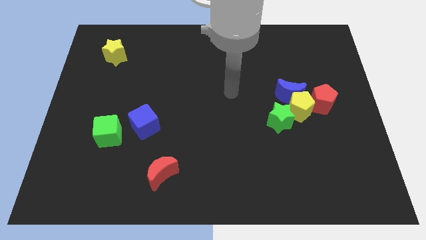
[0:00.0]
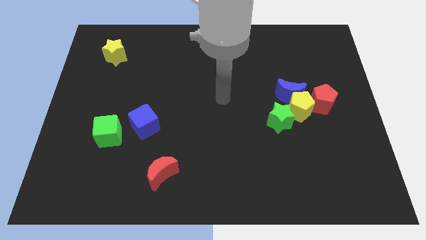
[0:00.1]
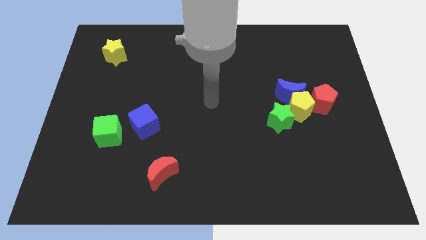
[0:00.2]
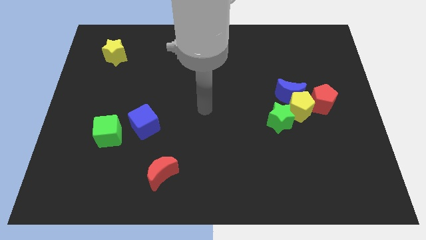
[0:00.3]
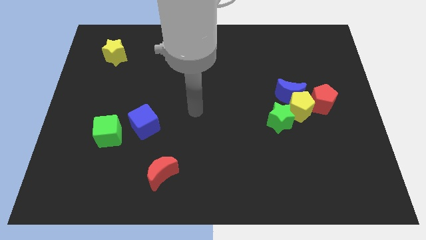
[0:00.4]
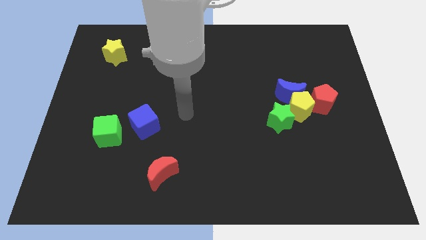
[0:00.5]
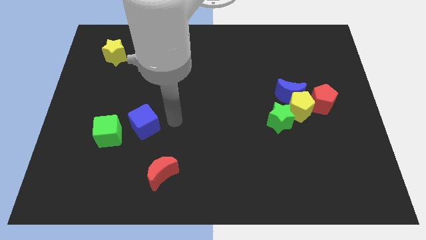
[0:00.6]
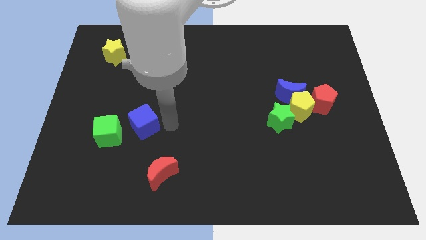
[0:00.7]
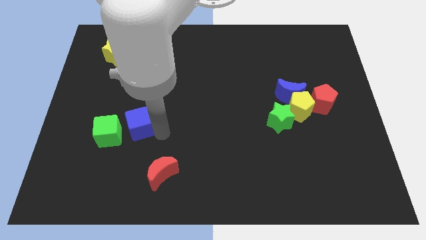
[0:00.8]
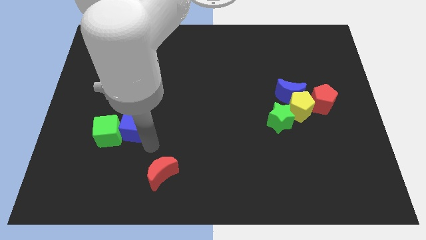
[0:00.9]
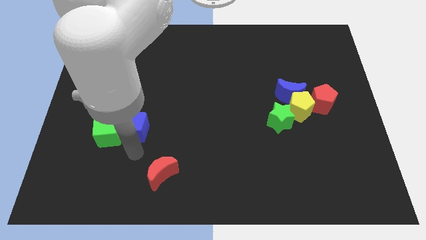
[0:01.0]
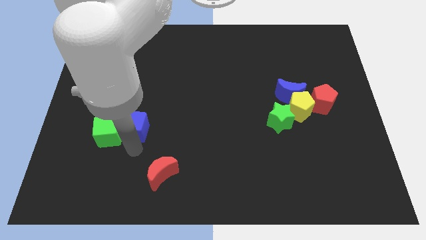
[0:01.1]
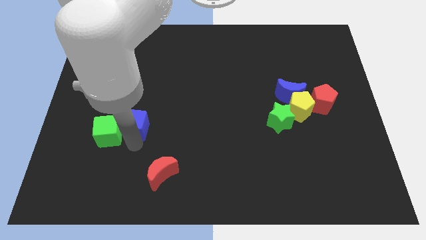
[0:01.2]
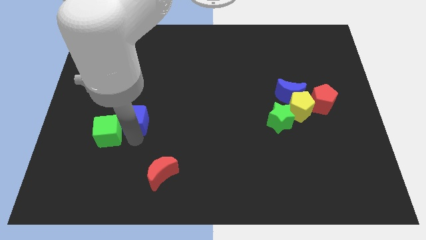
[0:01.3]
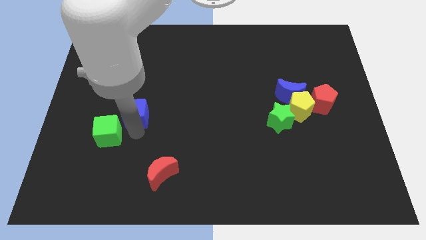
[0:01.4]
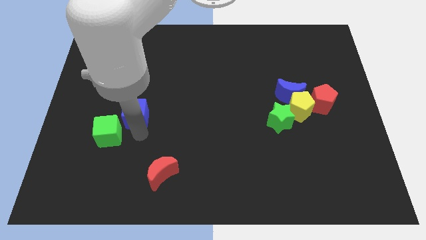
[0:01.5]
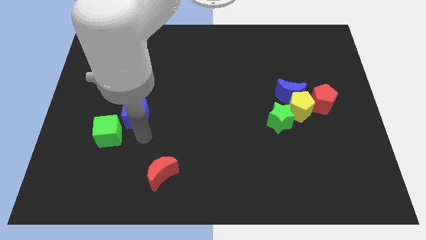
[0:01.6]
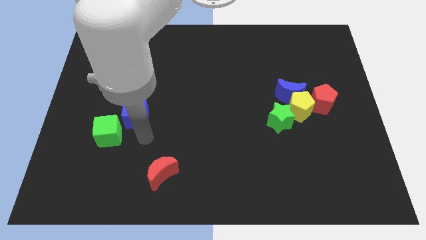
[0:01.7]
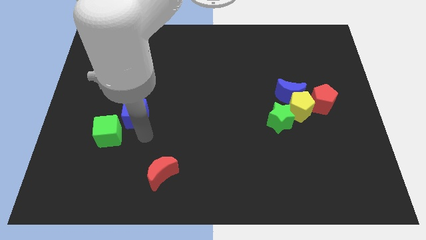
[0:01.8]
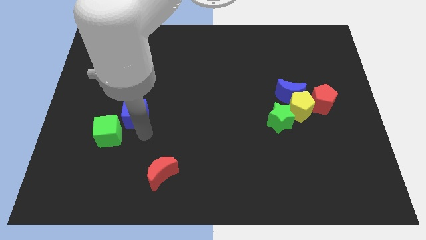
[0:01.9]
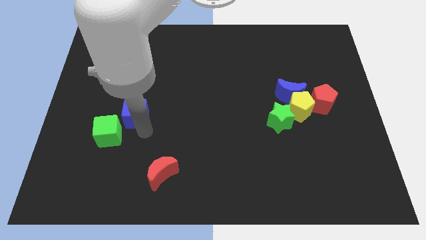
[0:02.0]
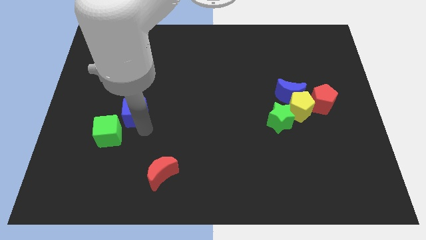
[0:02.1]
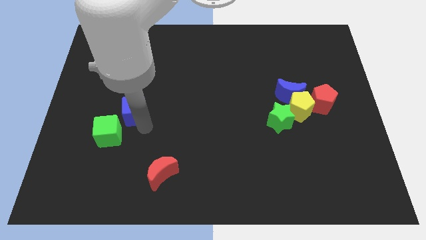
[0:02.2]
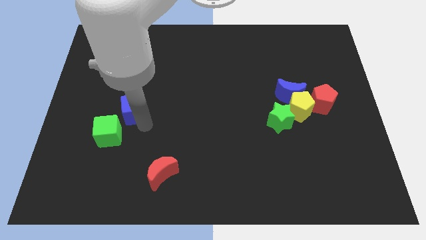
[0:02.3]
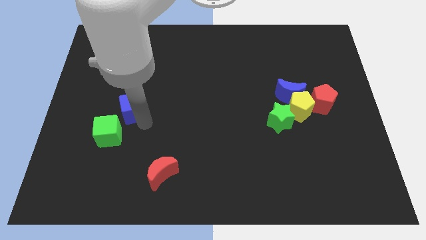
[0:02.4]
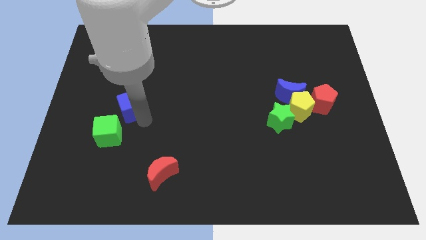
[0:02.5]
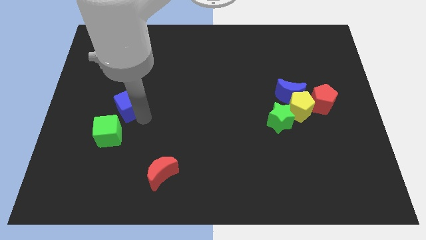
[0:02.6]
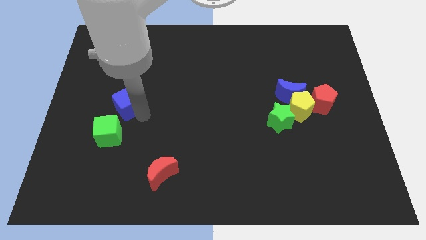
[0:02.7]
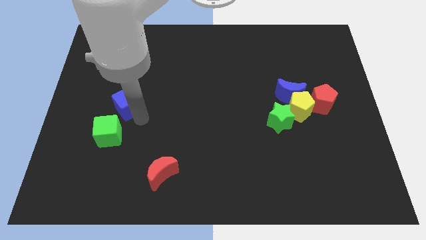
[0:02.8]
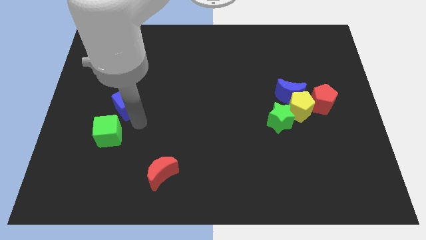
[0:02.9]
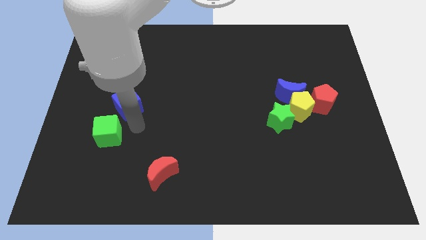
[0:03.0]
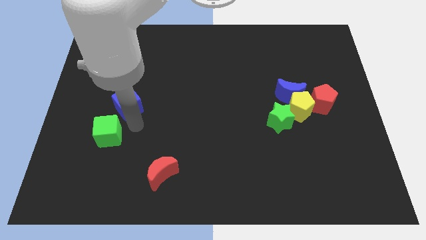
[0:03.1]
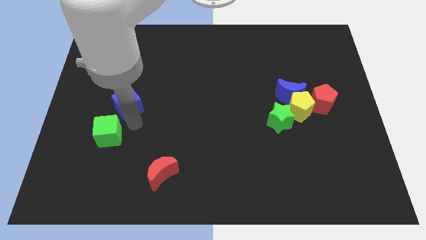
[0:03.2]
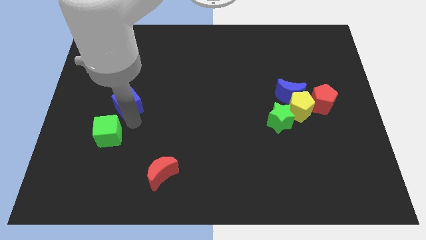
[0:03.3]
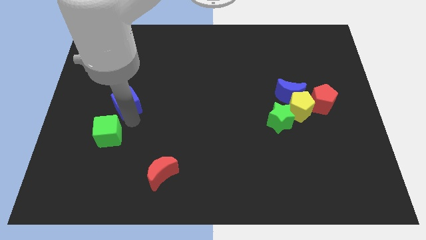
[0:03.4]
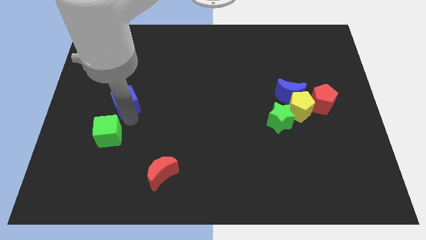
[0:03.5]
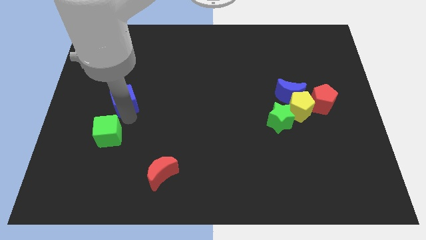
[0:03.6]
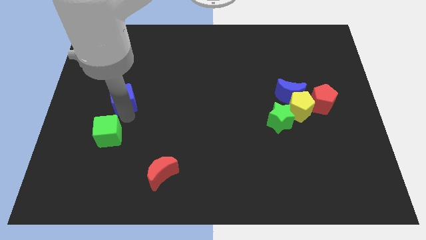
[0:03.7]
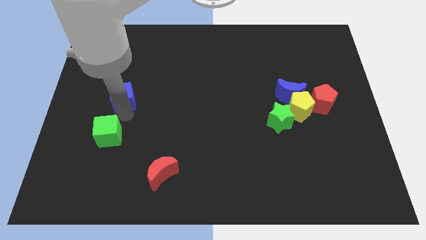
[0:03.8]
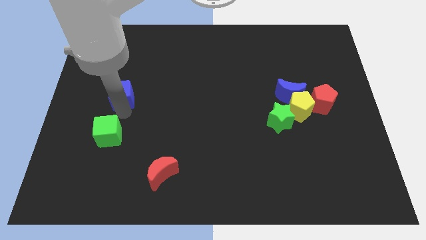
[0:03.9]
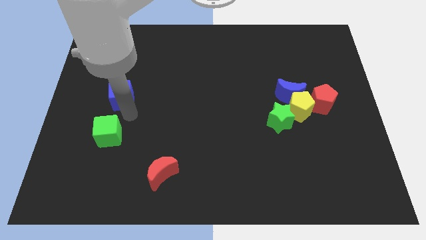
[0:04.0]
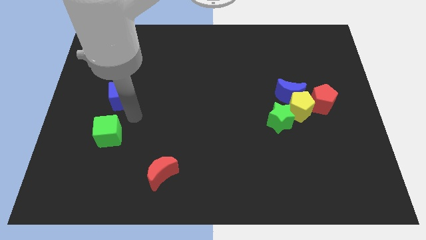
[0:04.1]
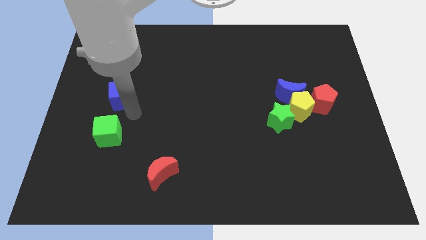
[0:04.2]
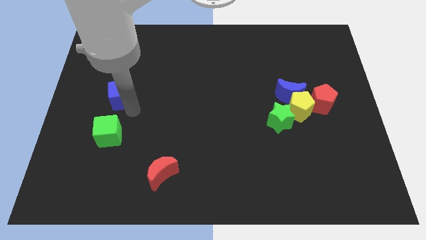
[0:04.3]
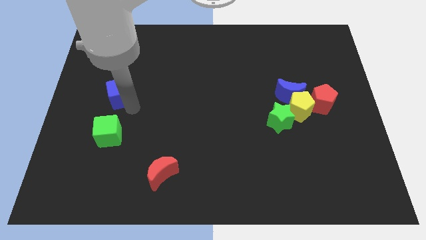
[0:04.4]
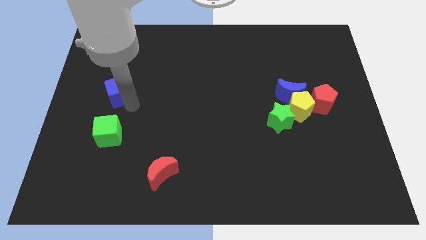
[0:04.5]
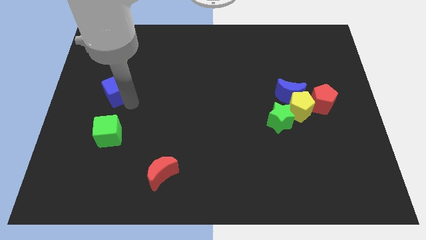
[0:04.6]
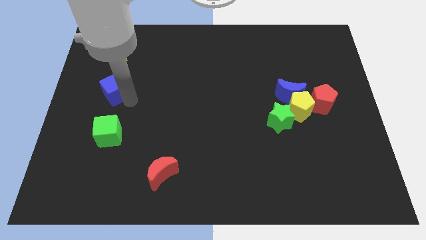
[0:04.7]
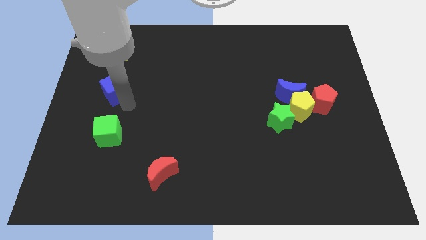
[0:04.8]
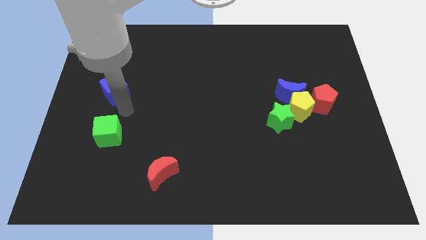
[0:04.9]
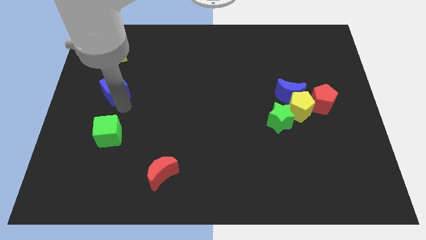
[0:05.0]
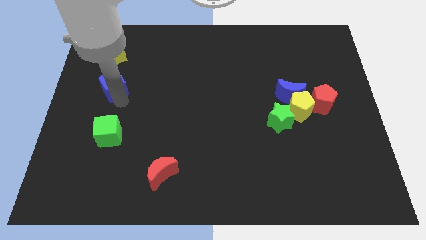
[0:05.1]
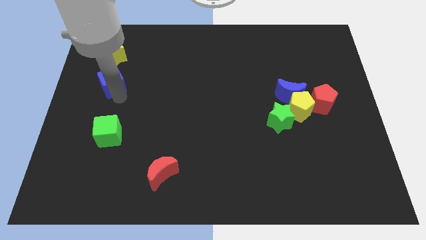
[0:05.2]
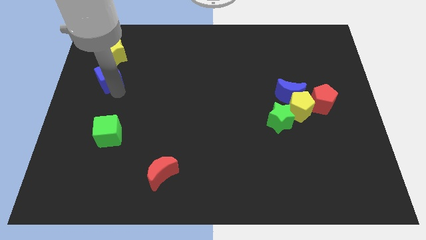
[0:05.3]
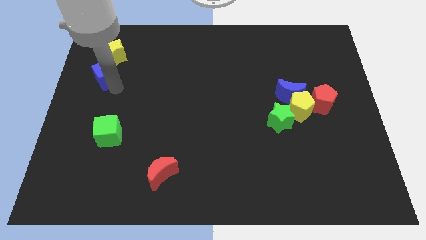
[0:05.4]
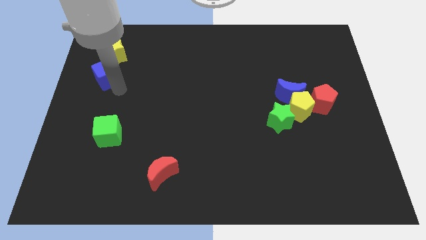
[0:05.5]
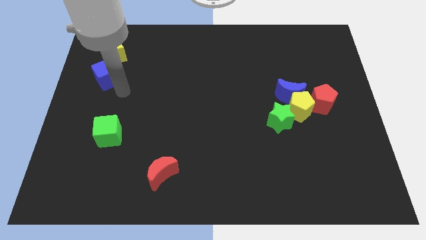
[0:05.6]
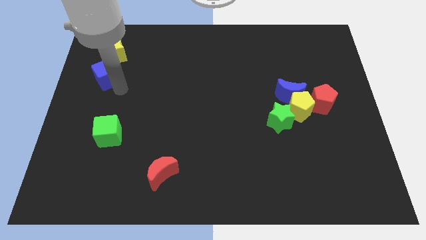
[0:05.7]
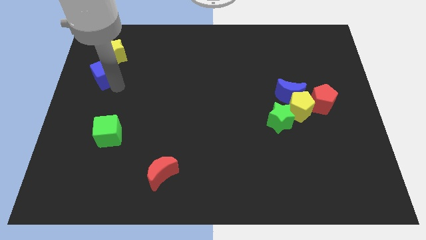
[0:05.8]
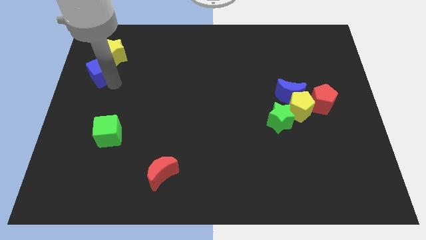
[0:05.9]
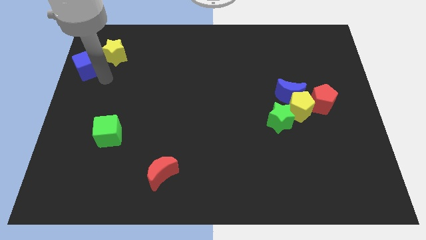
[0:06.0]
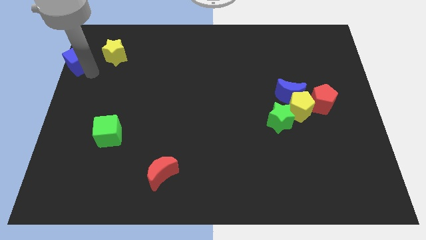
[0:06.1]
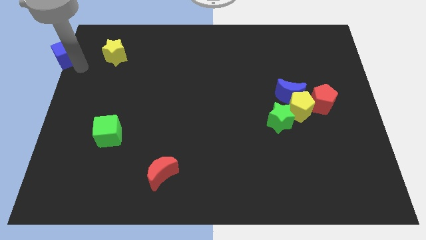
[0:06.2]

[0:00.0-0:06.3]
slide the blue cube to the top left of the board

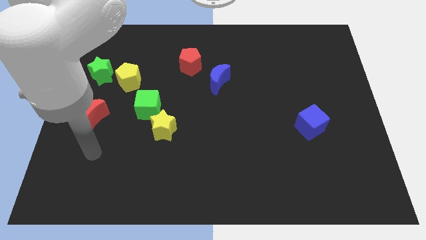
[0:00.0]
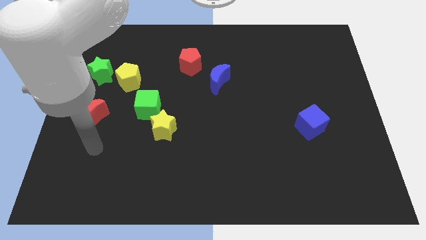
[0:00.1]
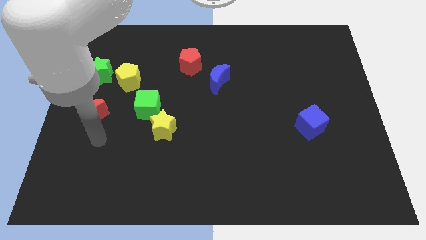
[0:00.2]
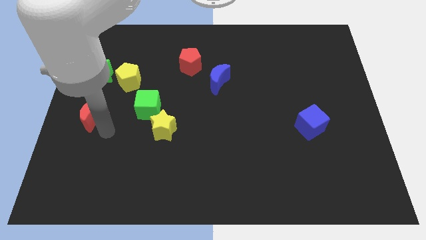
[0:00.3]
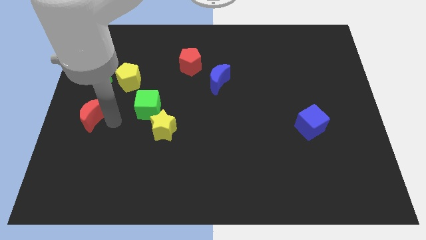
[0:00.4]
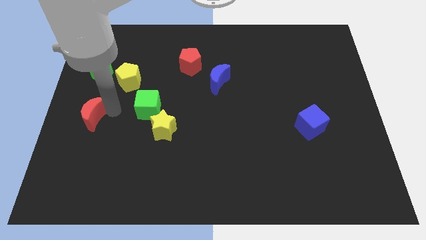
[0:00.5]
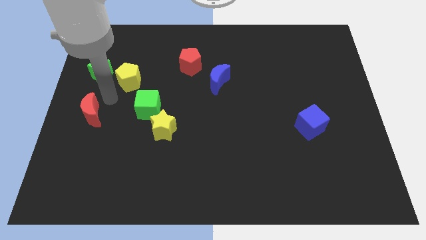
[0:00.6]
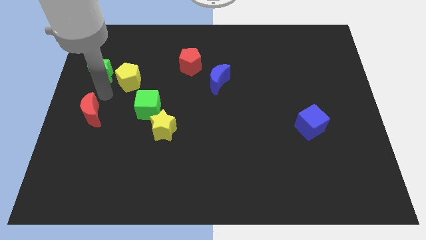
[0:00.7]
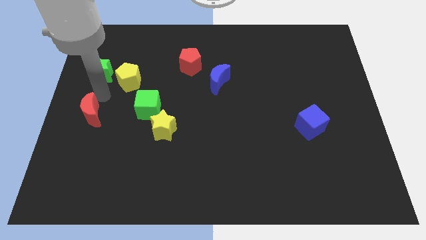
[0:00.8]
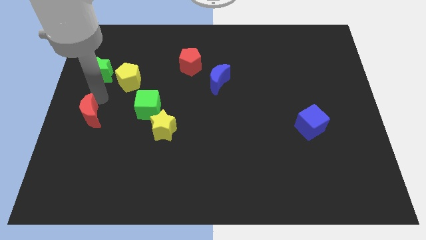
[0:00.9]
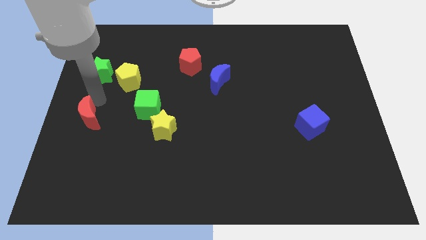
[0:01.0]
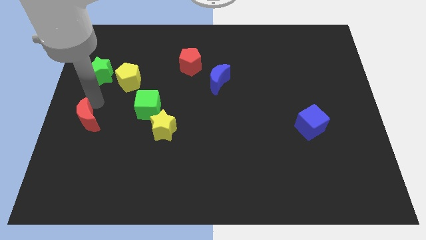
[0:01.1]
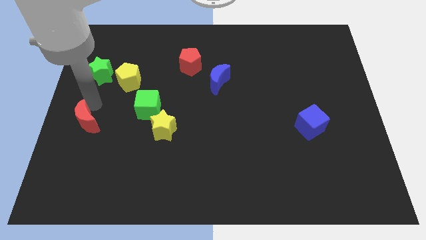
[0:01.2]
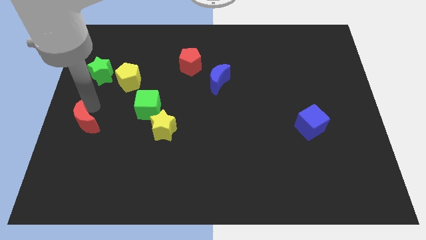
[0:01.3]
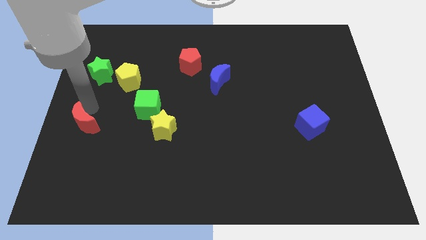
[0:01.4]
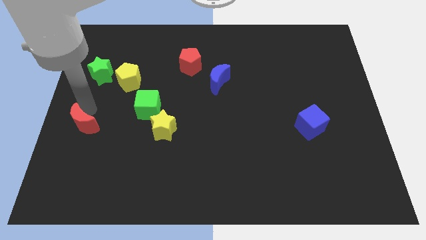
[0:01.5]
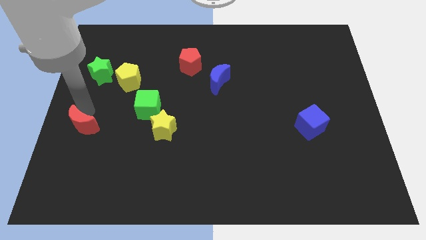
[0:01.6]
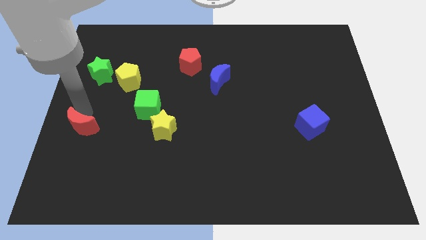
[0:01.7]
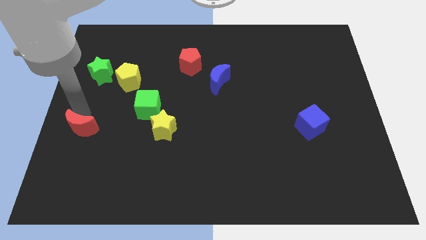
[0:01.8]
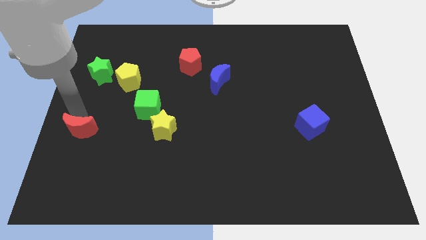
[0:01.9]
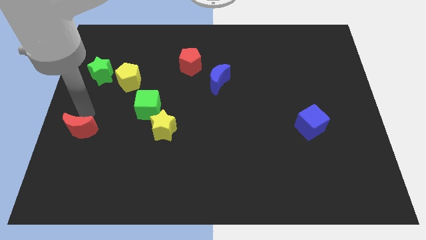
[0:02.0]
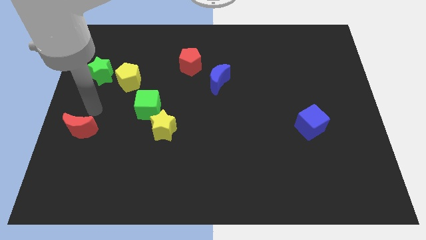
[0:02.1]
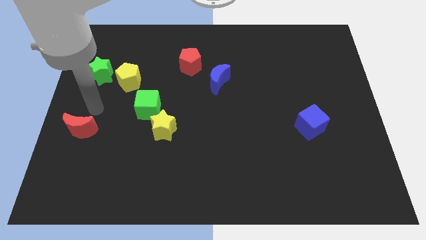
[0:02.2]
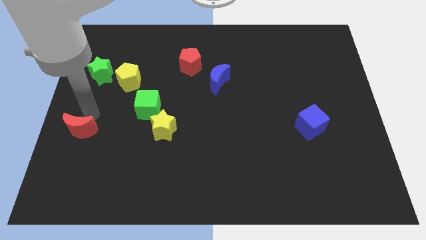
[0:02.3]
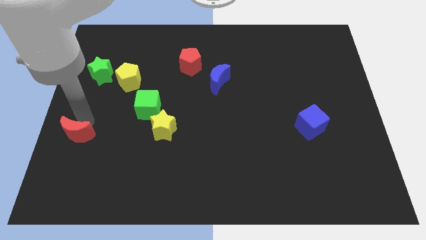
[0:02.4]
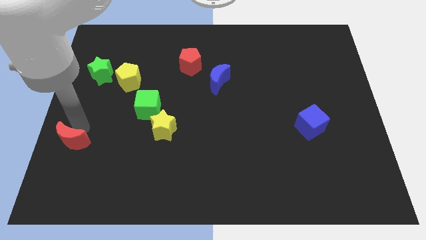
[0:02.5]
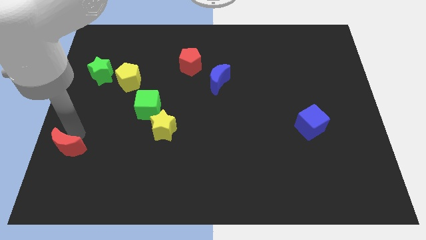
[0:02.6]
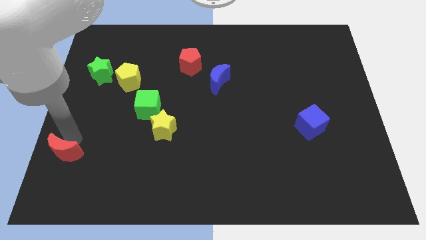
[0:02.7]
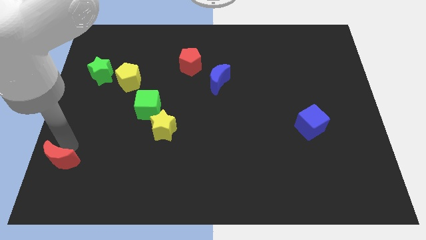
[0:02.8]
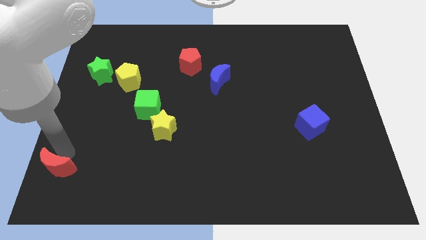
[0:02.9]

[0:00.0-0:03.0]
slide the red moon to the lower left corner
